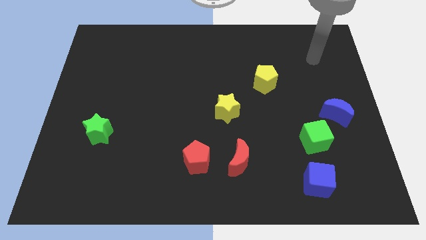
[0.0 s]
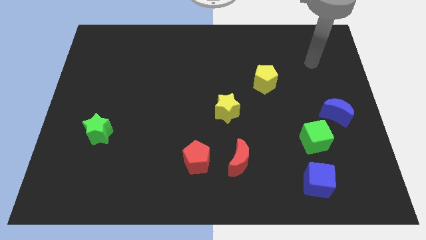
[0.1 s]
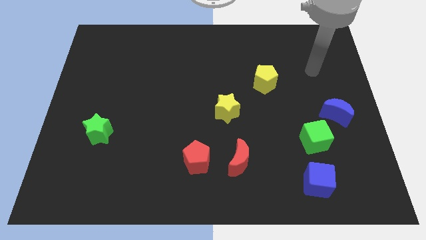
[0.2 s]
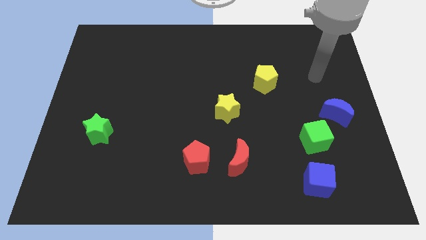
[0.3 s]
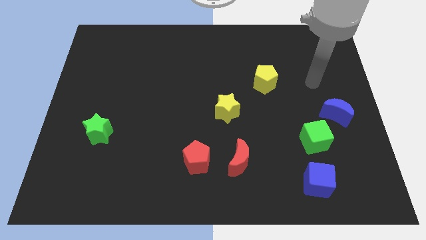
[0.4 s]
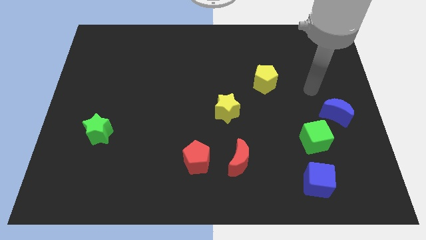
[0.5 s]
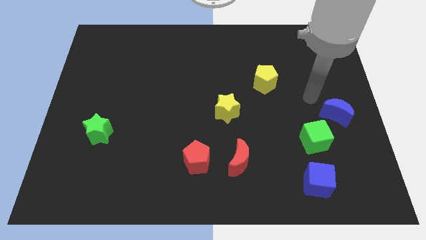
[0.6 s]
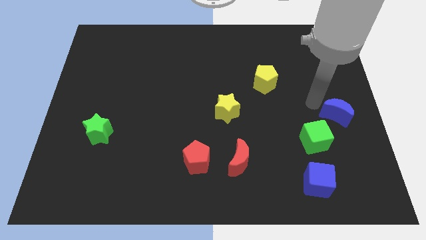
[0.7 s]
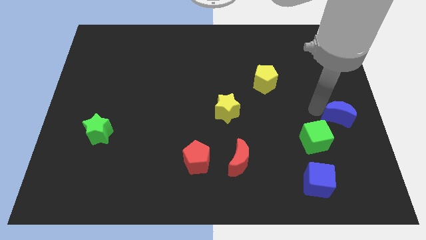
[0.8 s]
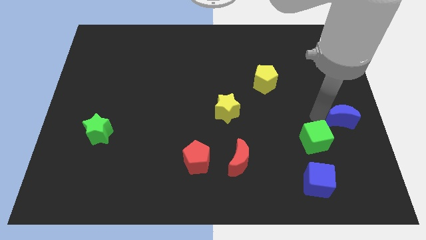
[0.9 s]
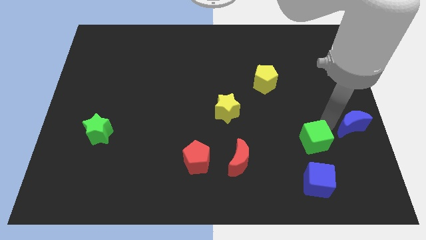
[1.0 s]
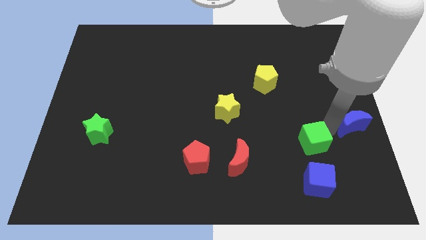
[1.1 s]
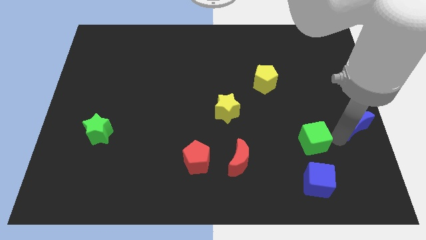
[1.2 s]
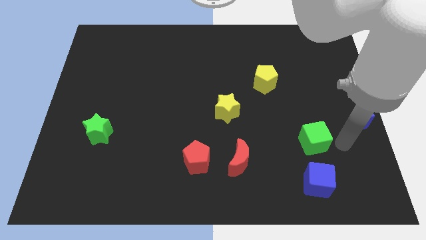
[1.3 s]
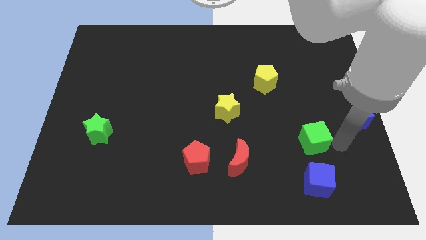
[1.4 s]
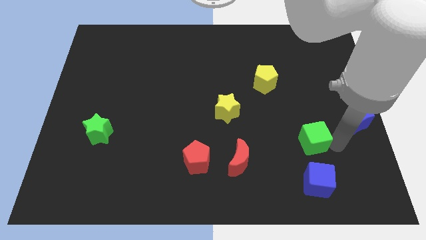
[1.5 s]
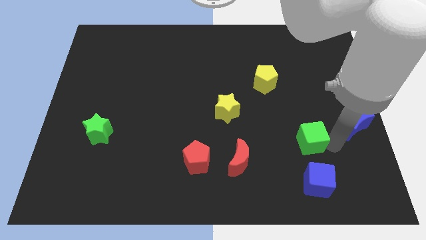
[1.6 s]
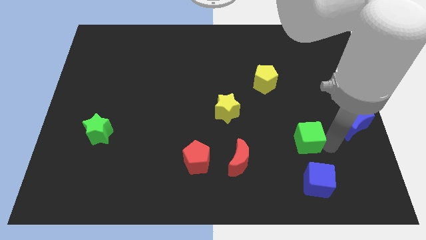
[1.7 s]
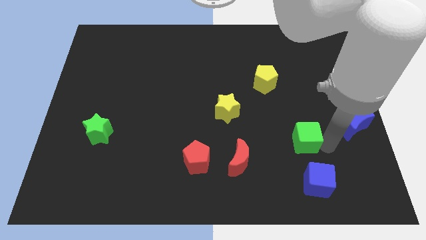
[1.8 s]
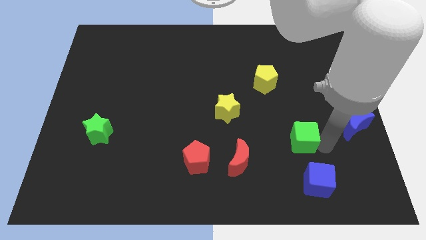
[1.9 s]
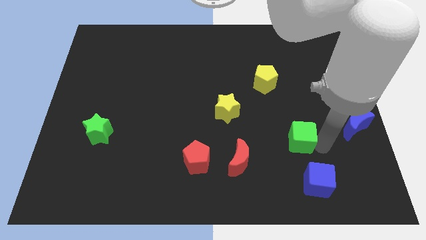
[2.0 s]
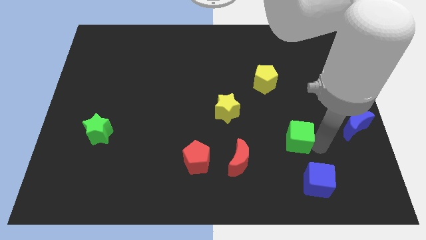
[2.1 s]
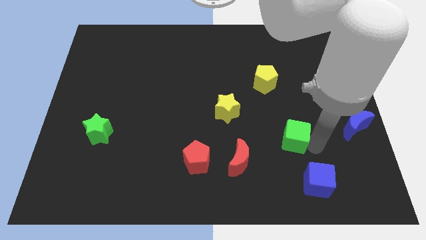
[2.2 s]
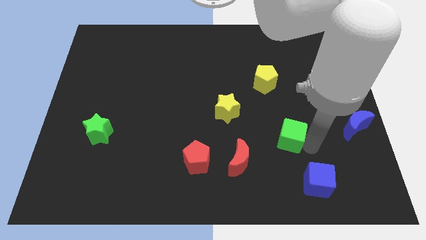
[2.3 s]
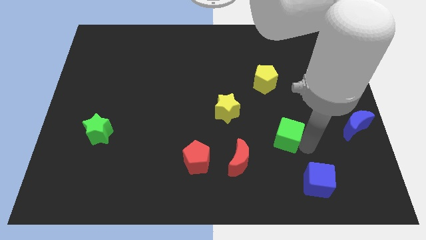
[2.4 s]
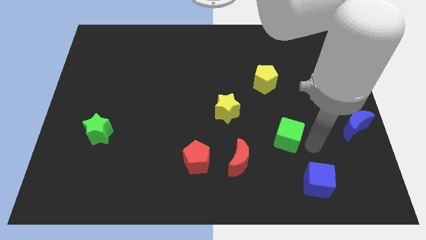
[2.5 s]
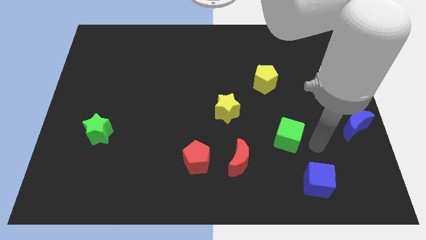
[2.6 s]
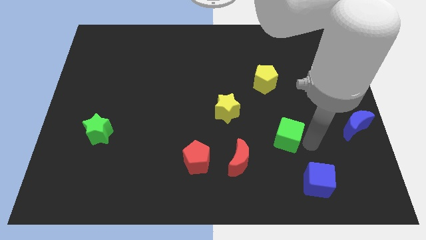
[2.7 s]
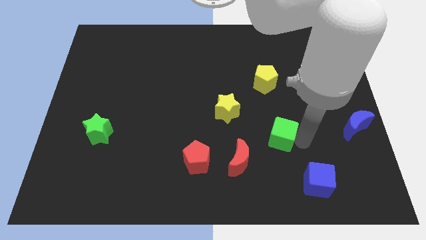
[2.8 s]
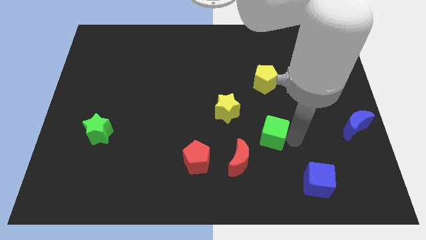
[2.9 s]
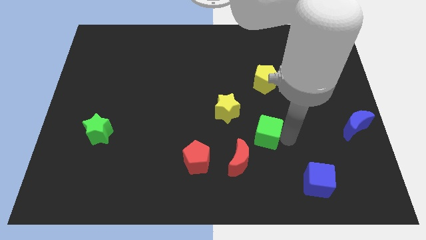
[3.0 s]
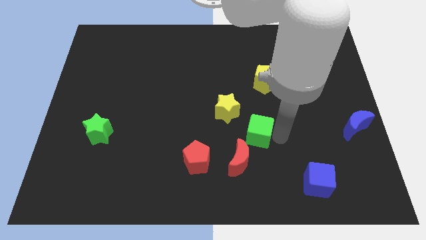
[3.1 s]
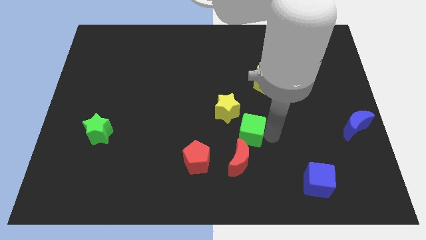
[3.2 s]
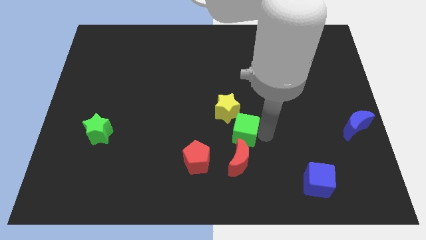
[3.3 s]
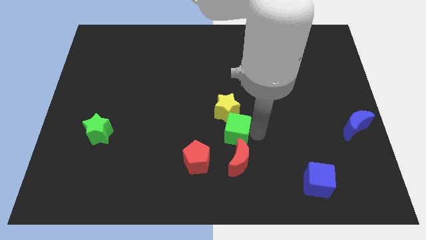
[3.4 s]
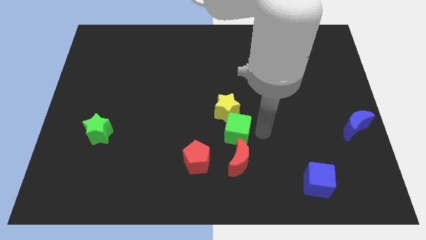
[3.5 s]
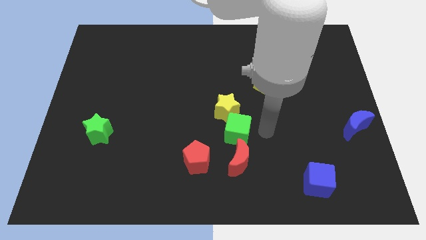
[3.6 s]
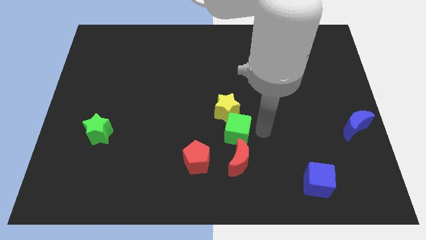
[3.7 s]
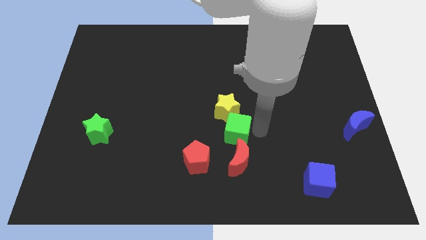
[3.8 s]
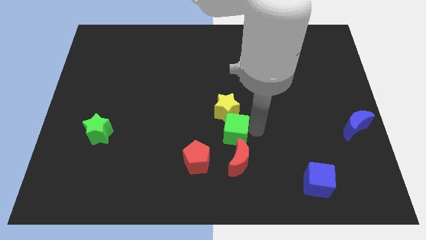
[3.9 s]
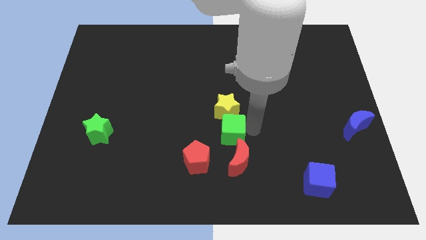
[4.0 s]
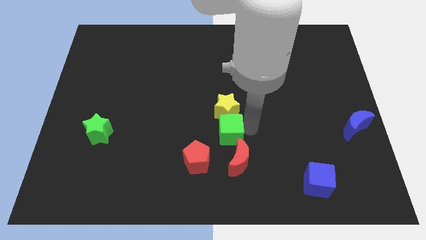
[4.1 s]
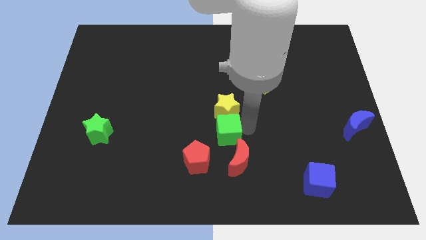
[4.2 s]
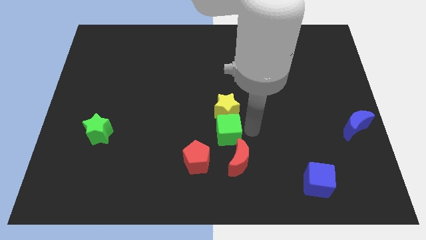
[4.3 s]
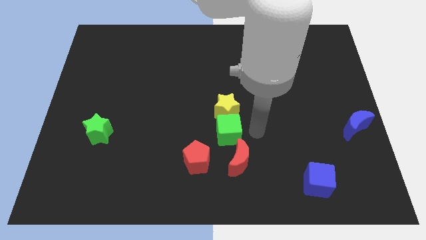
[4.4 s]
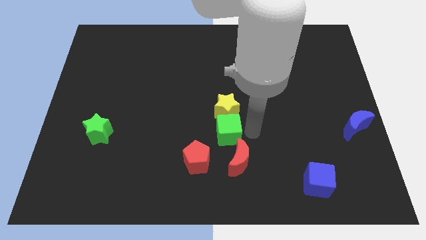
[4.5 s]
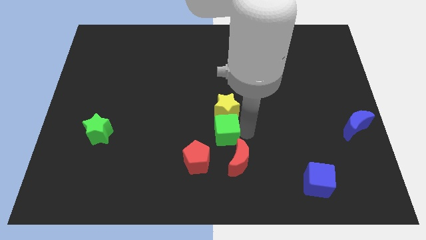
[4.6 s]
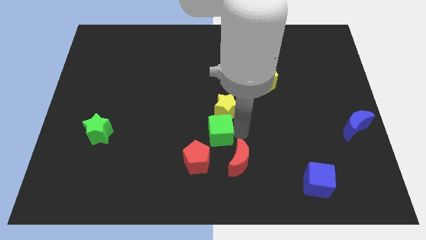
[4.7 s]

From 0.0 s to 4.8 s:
push the green cube to the left

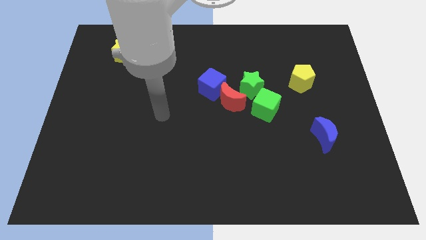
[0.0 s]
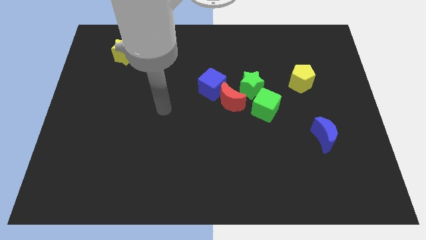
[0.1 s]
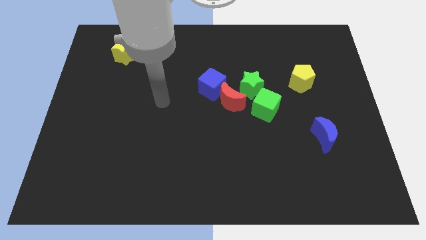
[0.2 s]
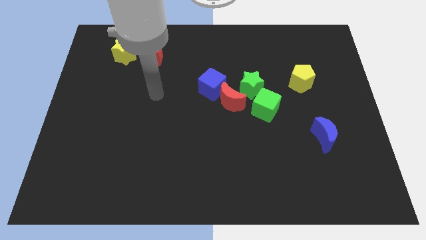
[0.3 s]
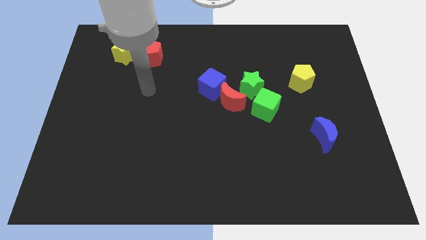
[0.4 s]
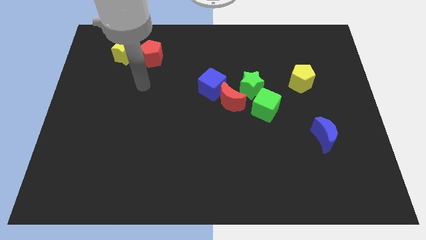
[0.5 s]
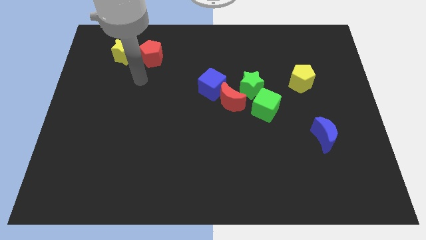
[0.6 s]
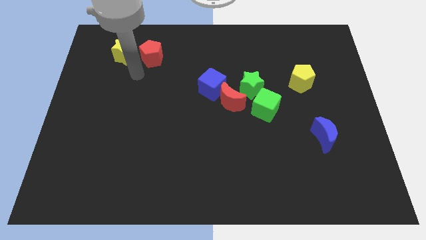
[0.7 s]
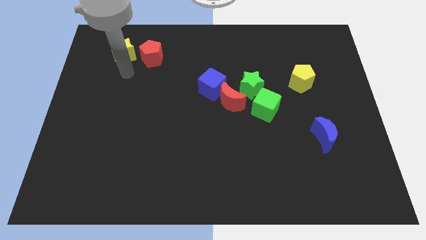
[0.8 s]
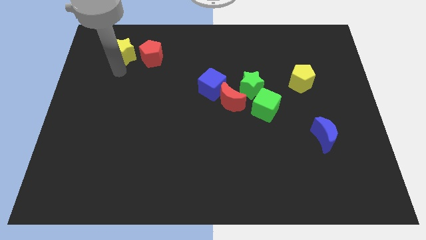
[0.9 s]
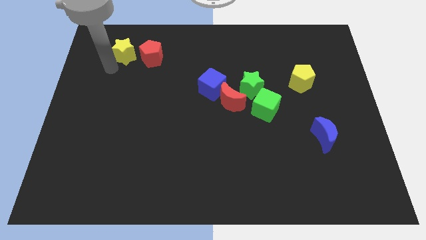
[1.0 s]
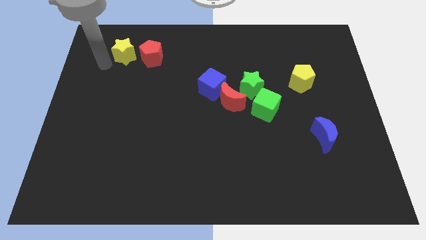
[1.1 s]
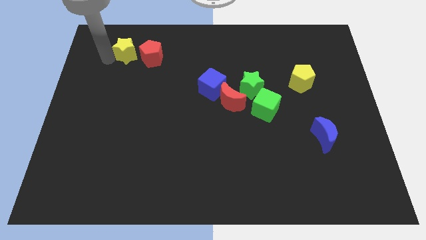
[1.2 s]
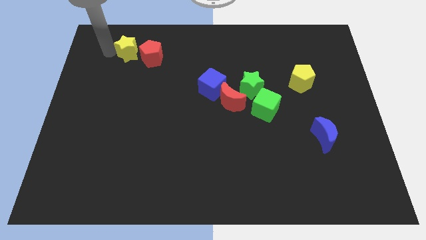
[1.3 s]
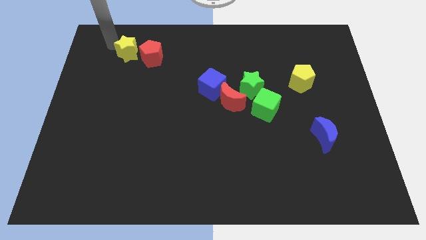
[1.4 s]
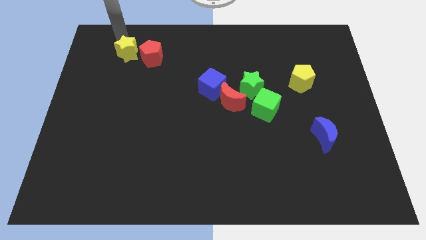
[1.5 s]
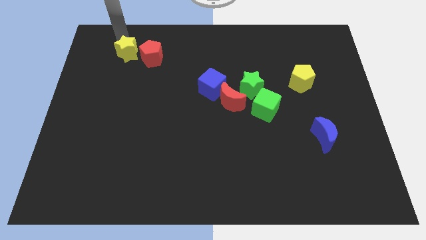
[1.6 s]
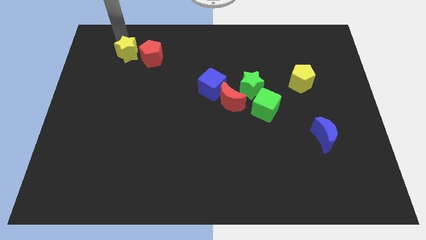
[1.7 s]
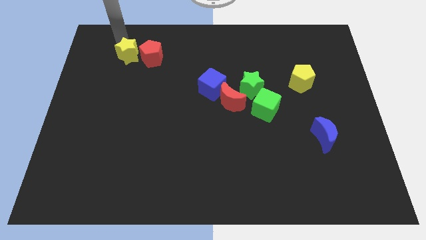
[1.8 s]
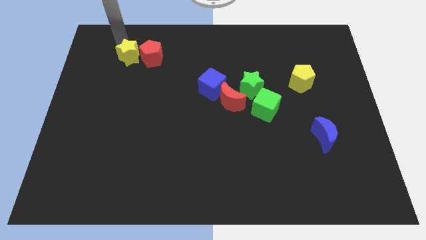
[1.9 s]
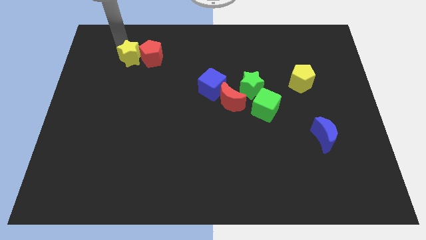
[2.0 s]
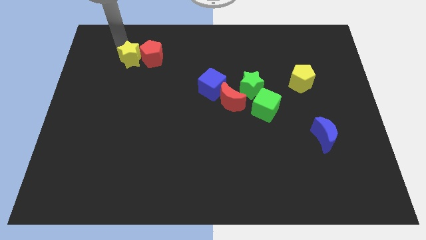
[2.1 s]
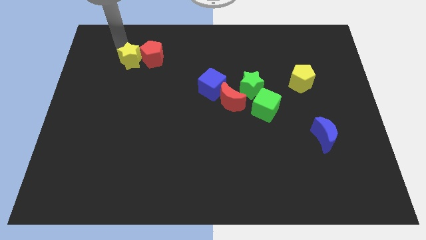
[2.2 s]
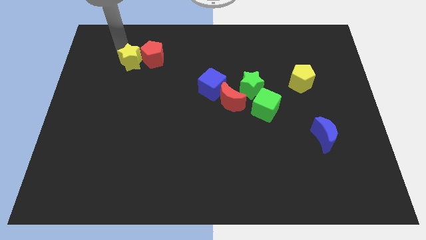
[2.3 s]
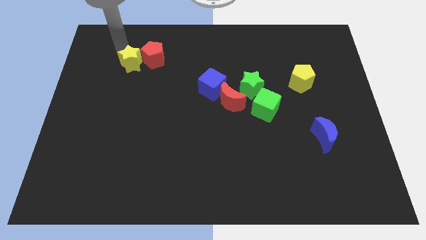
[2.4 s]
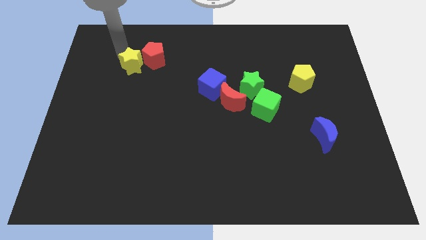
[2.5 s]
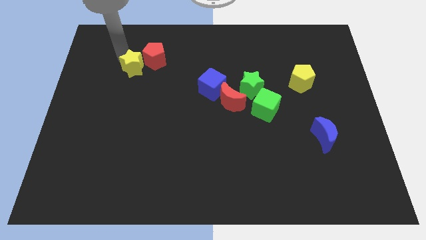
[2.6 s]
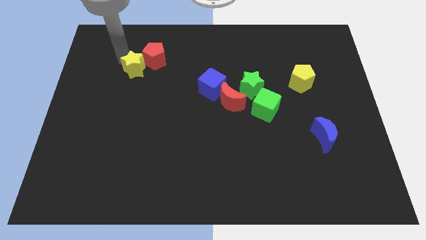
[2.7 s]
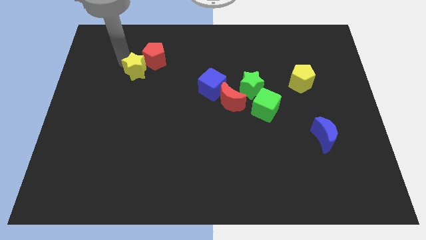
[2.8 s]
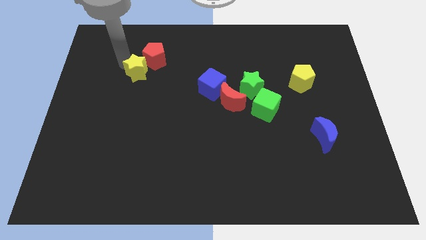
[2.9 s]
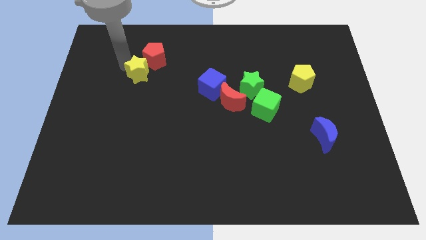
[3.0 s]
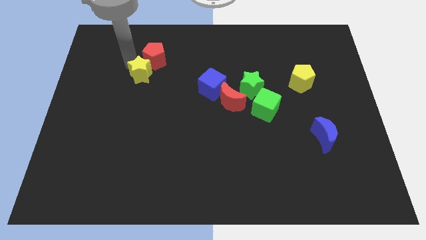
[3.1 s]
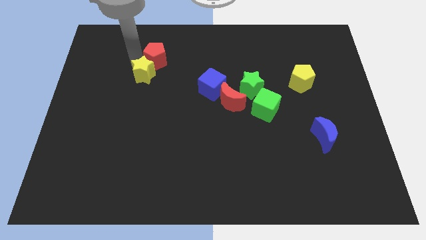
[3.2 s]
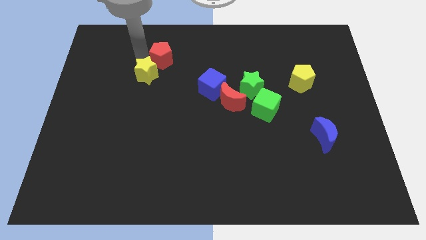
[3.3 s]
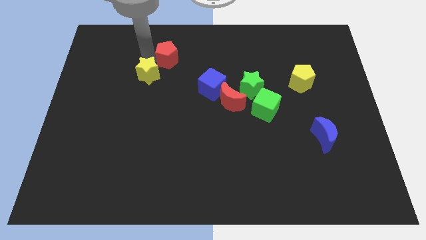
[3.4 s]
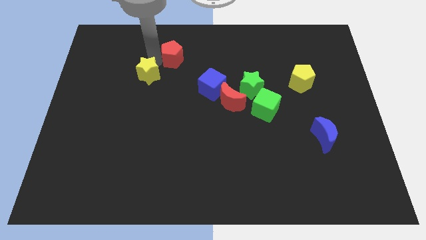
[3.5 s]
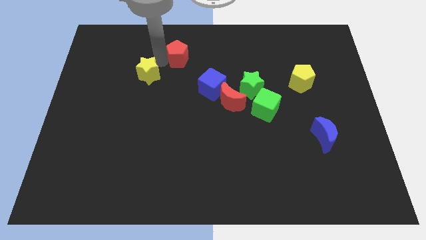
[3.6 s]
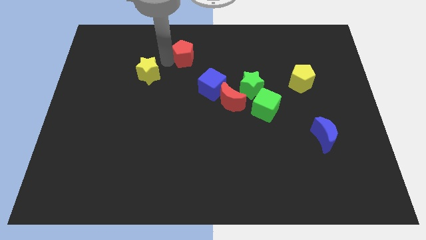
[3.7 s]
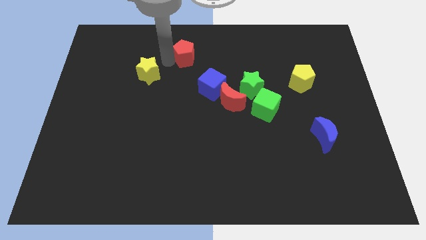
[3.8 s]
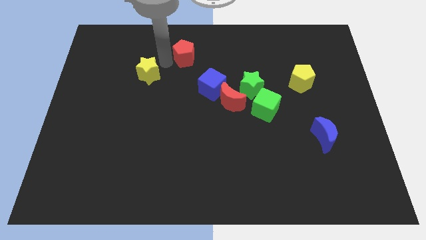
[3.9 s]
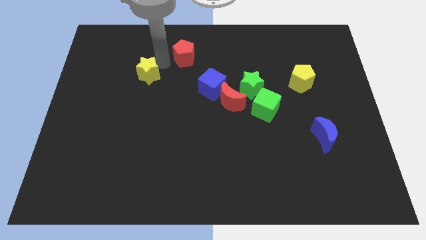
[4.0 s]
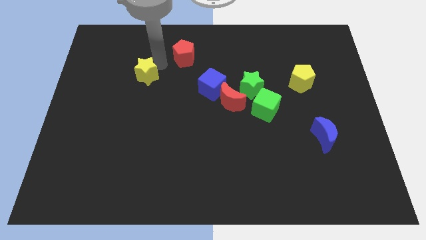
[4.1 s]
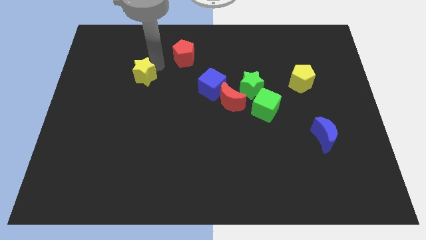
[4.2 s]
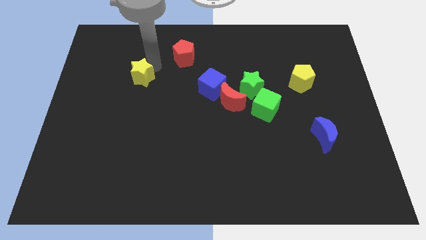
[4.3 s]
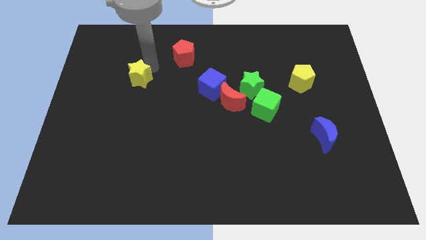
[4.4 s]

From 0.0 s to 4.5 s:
slide the yellow star a little downwards
